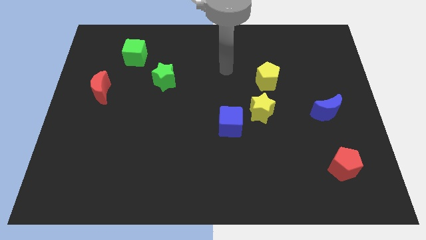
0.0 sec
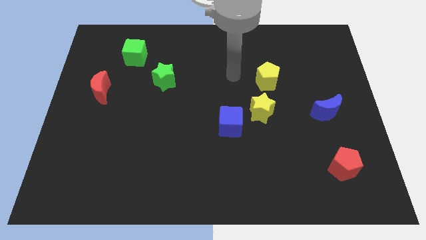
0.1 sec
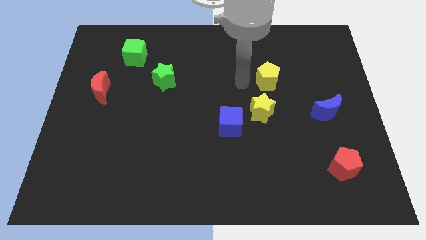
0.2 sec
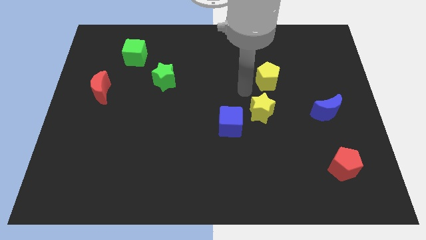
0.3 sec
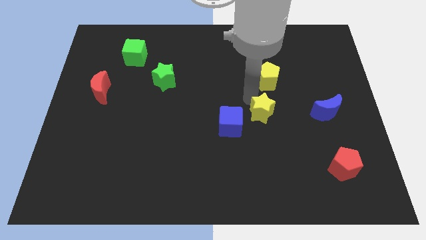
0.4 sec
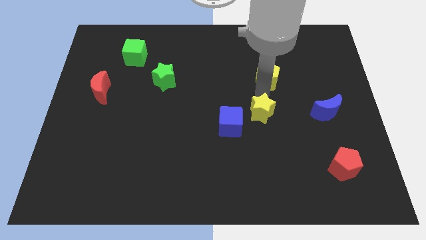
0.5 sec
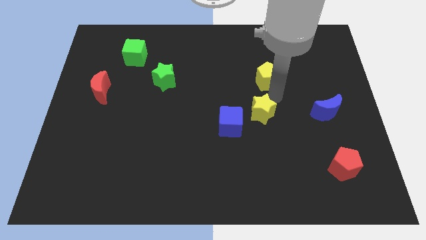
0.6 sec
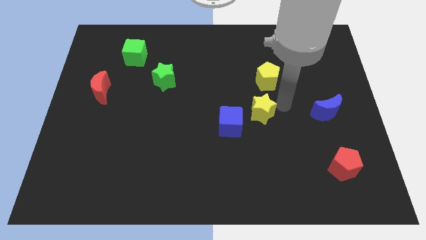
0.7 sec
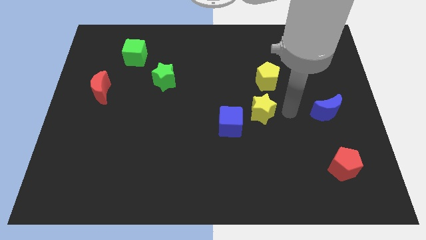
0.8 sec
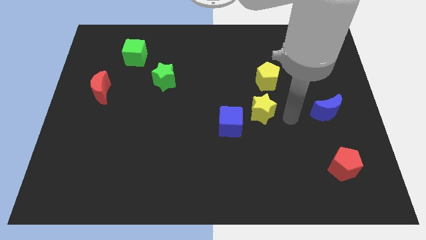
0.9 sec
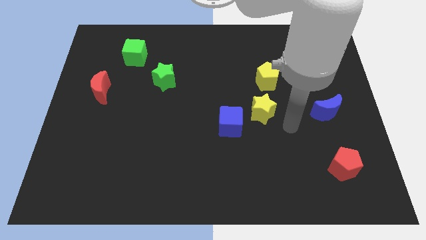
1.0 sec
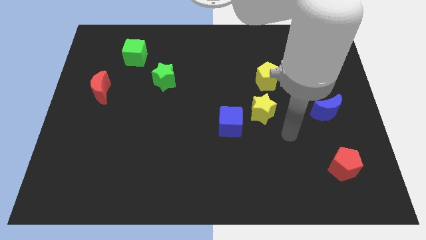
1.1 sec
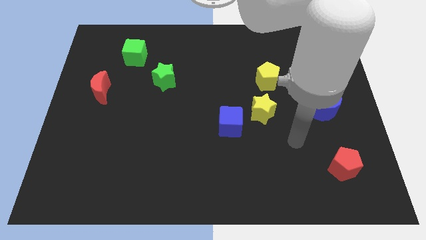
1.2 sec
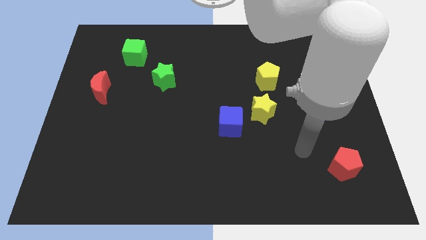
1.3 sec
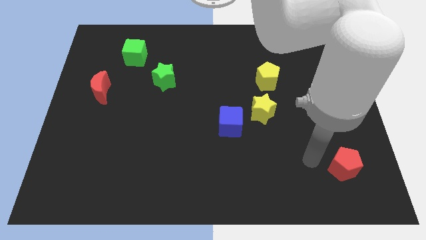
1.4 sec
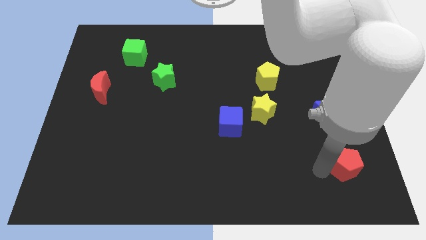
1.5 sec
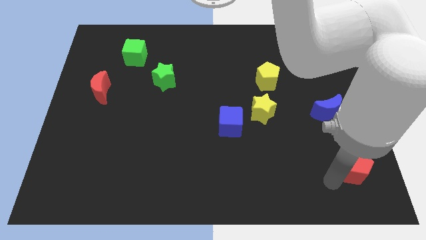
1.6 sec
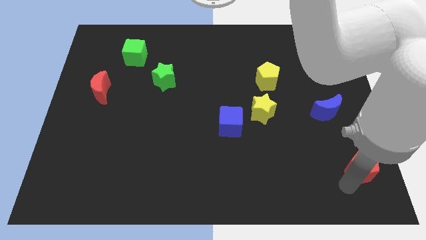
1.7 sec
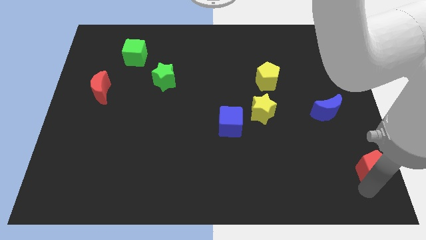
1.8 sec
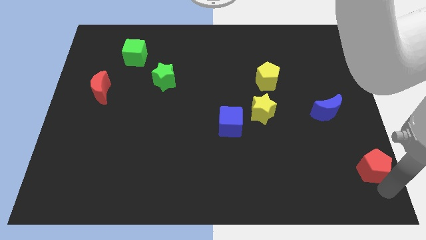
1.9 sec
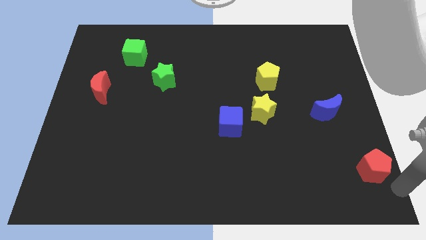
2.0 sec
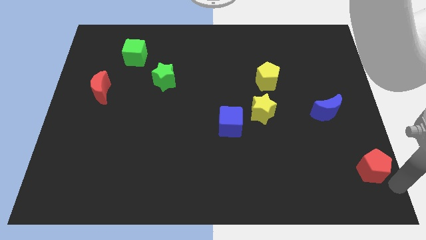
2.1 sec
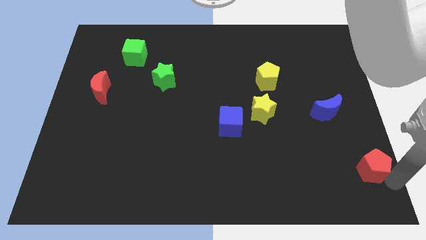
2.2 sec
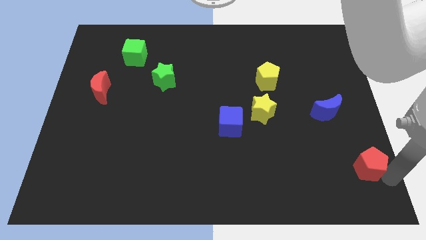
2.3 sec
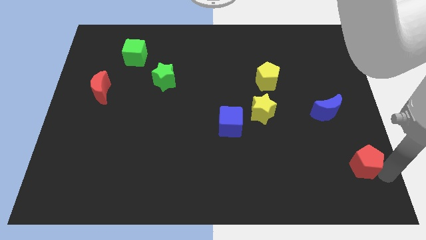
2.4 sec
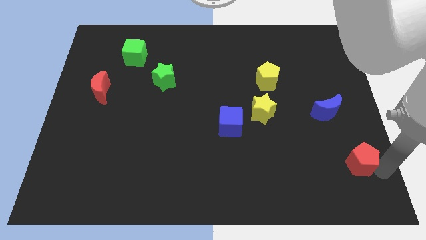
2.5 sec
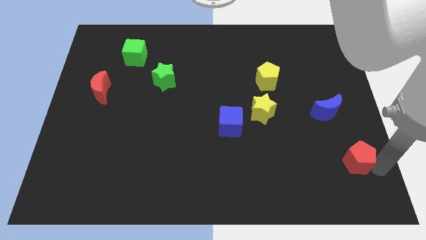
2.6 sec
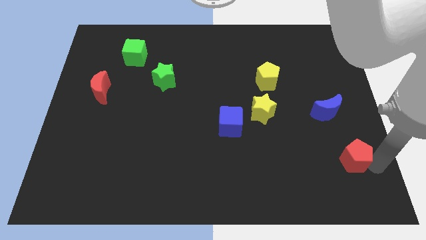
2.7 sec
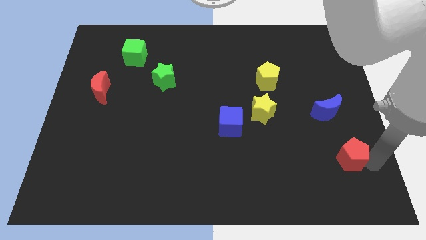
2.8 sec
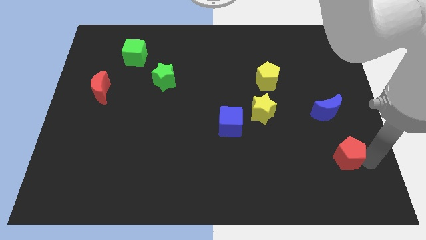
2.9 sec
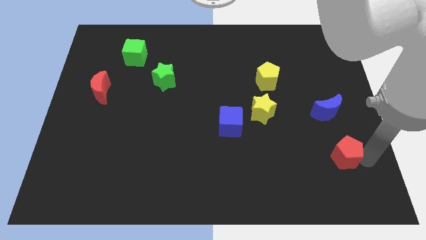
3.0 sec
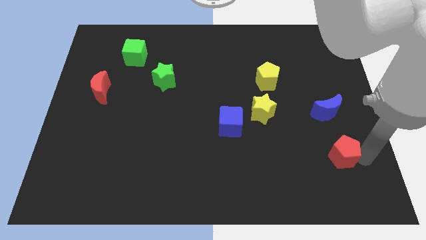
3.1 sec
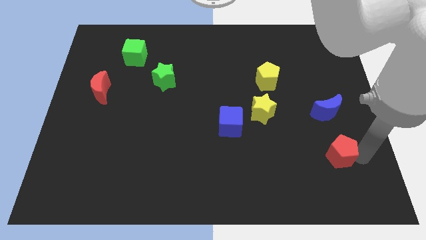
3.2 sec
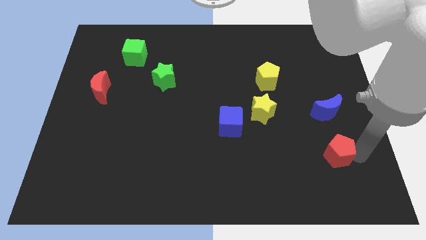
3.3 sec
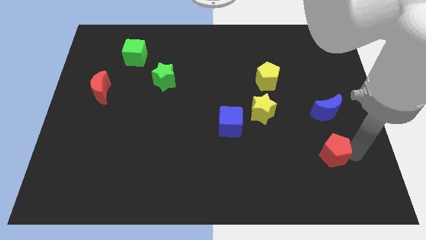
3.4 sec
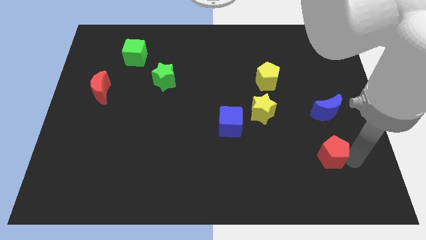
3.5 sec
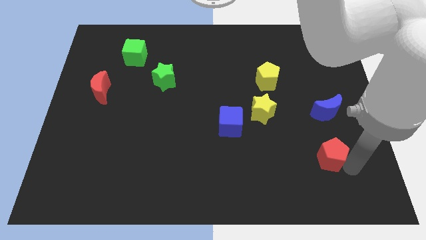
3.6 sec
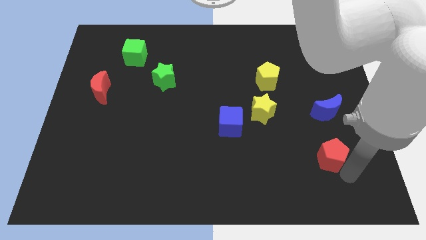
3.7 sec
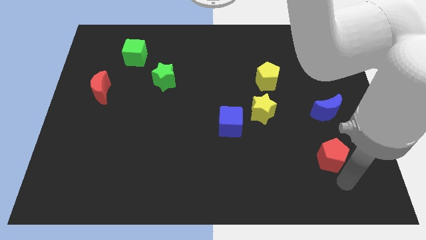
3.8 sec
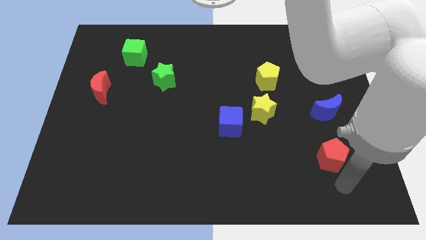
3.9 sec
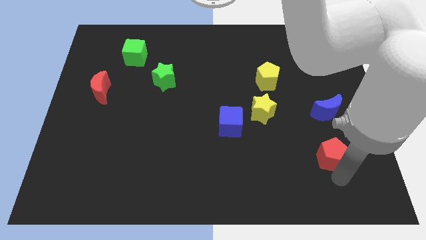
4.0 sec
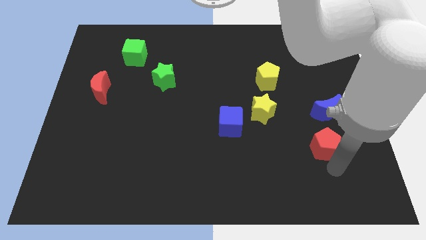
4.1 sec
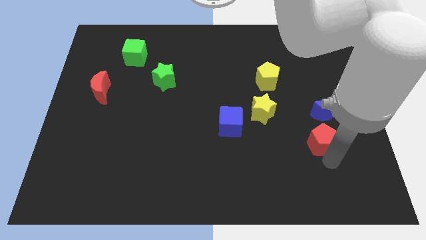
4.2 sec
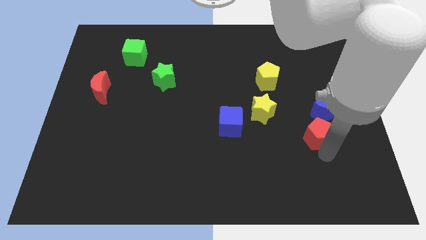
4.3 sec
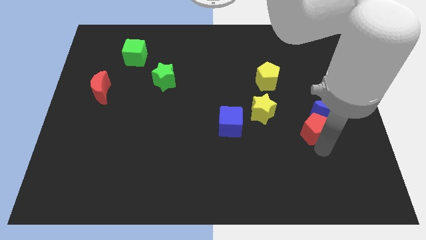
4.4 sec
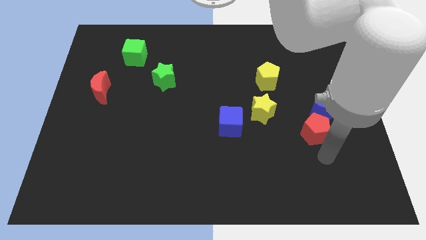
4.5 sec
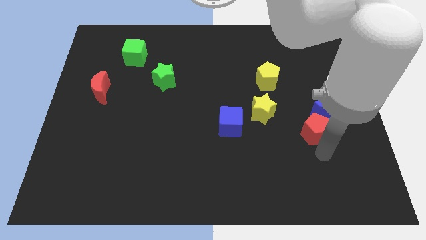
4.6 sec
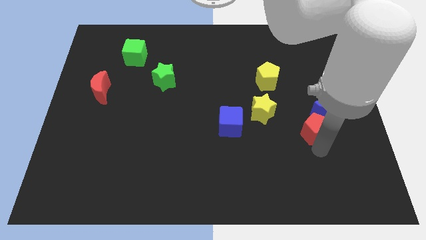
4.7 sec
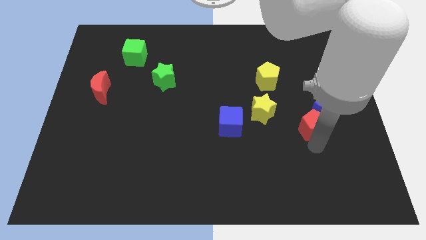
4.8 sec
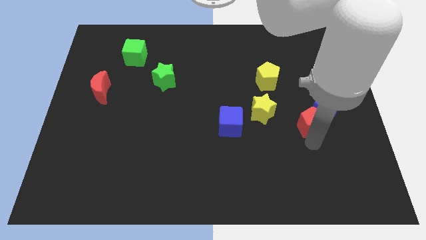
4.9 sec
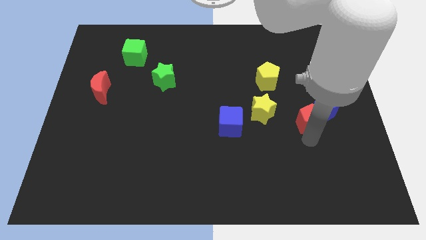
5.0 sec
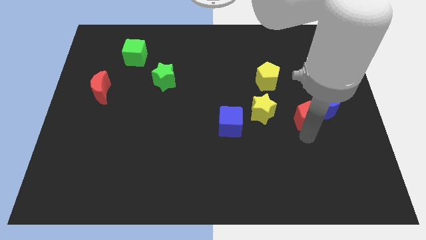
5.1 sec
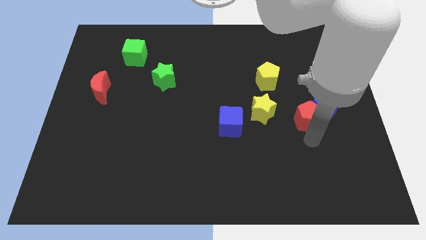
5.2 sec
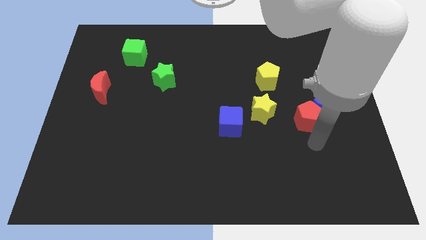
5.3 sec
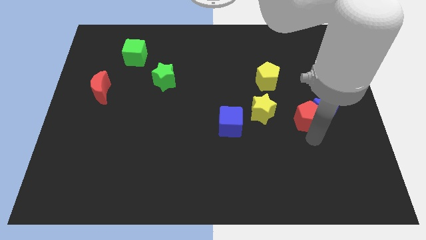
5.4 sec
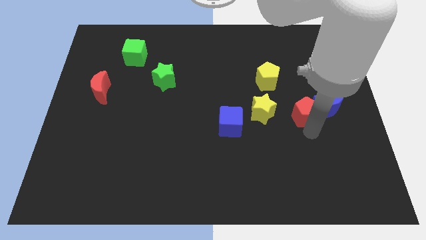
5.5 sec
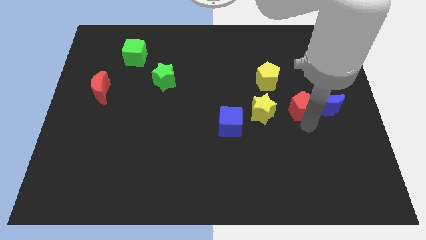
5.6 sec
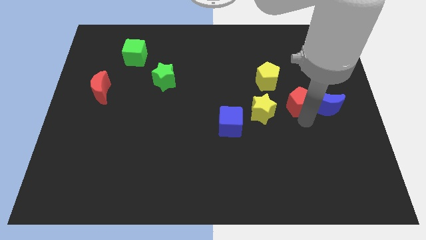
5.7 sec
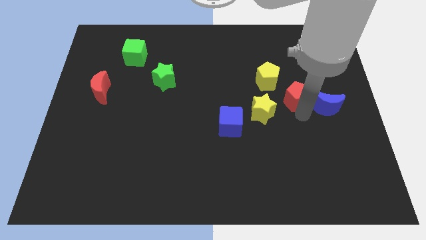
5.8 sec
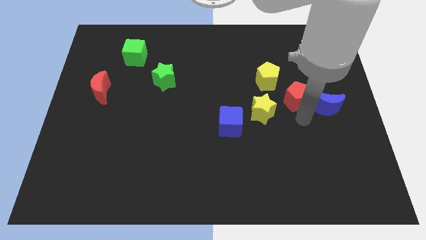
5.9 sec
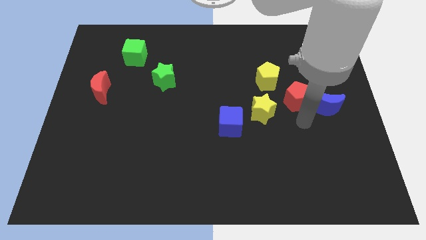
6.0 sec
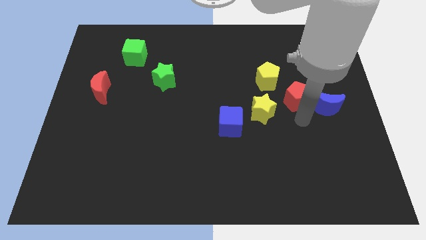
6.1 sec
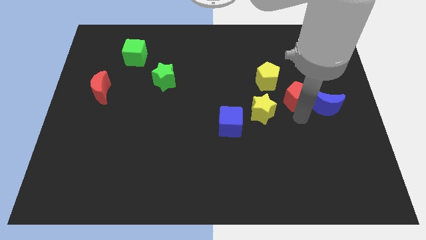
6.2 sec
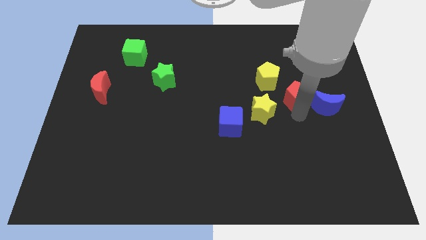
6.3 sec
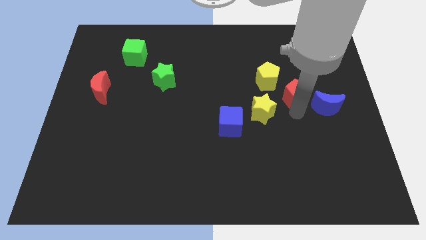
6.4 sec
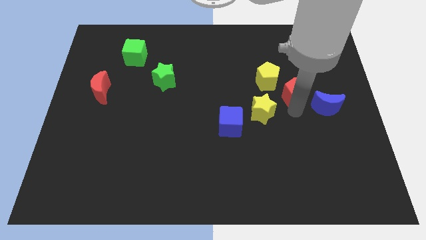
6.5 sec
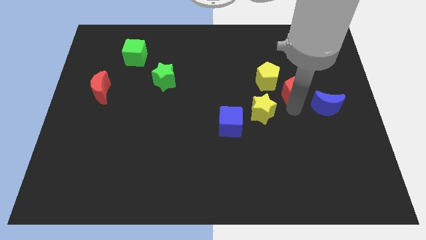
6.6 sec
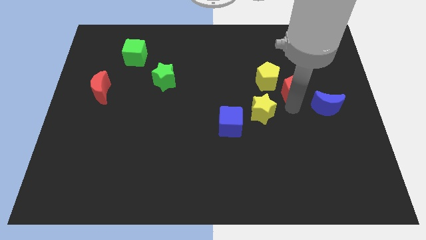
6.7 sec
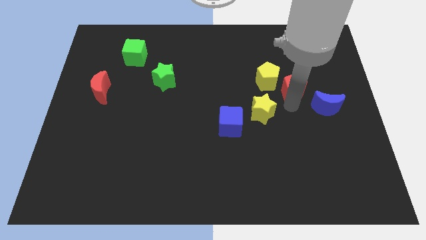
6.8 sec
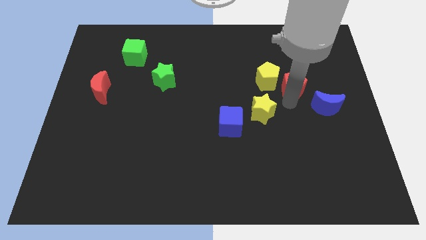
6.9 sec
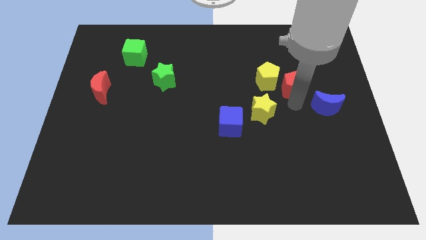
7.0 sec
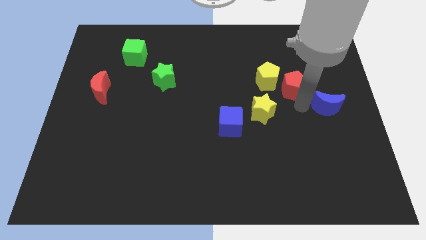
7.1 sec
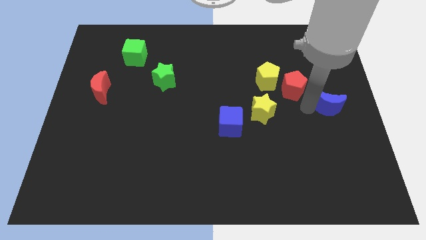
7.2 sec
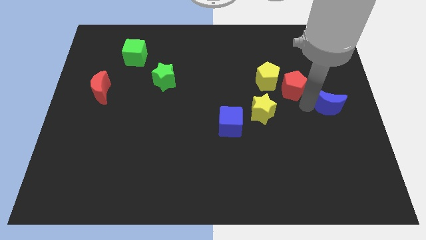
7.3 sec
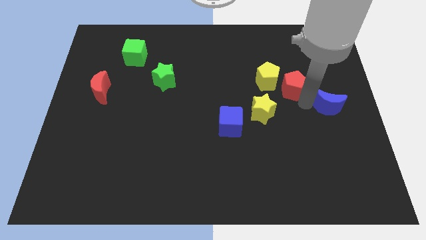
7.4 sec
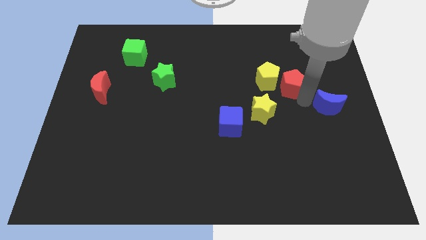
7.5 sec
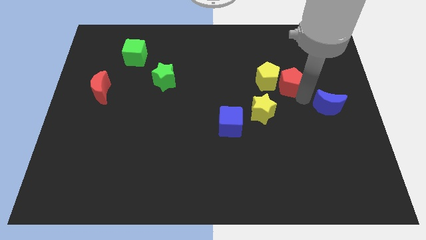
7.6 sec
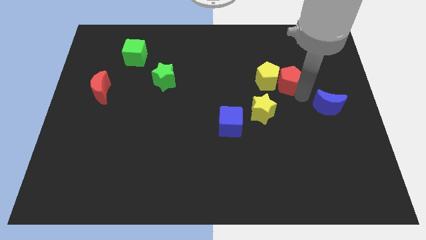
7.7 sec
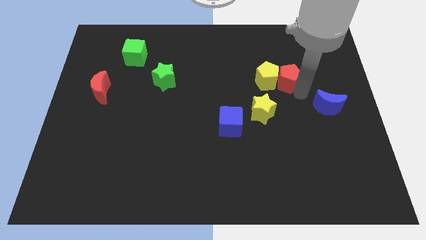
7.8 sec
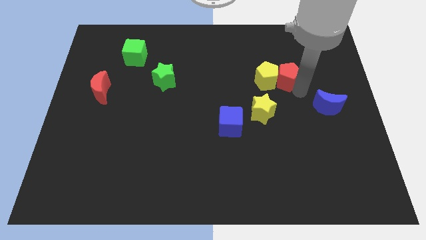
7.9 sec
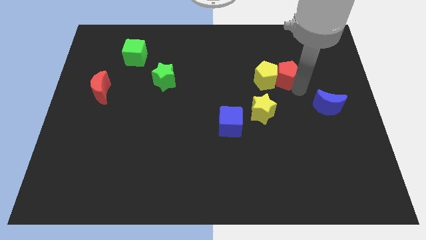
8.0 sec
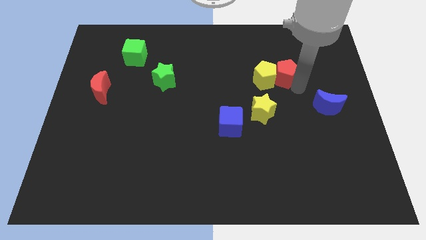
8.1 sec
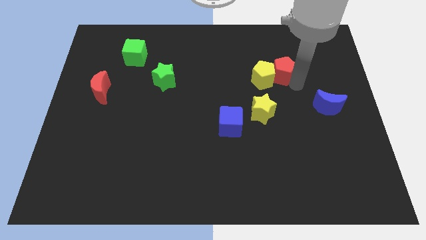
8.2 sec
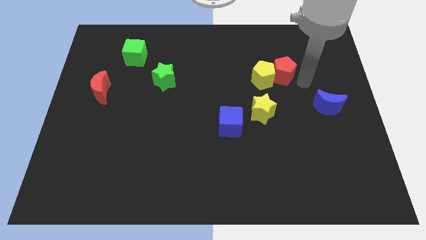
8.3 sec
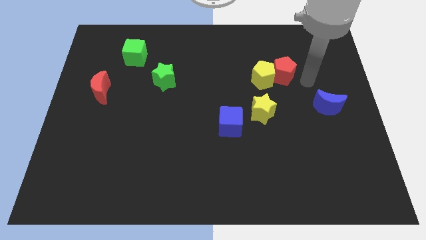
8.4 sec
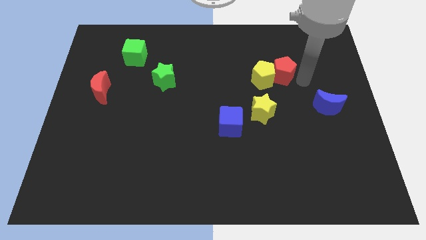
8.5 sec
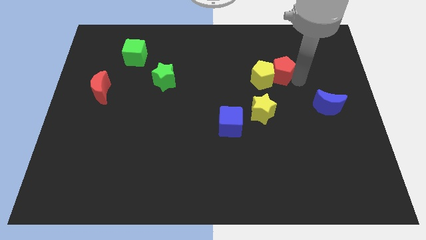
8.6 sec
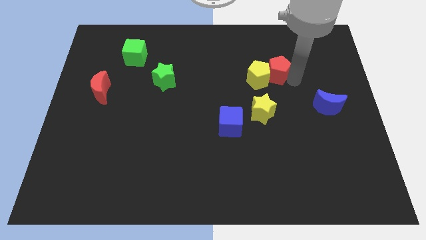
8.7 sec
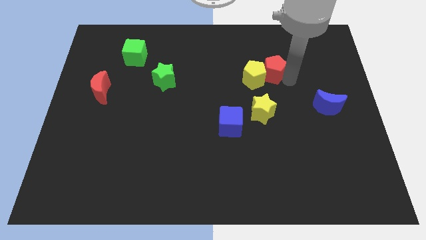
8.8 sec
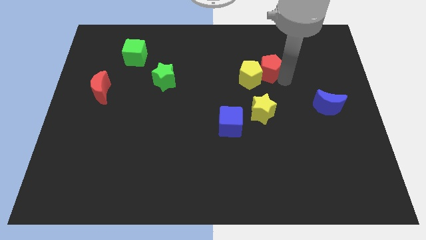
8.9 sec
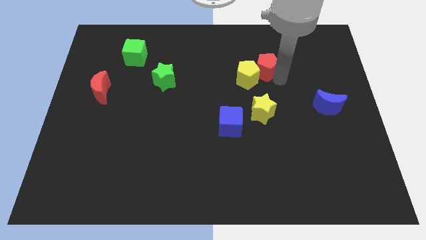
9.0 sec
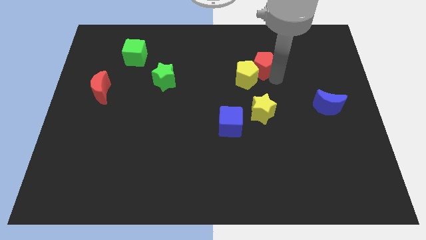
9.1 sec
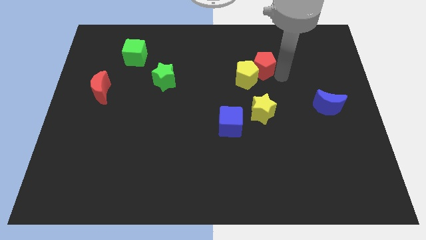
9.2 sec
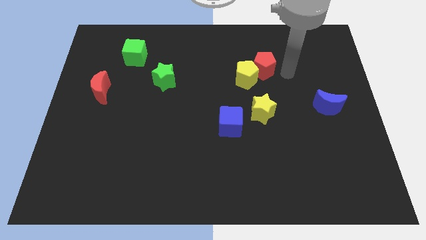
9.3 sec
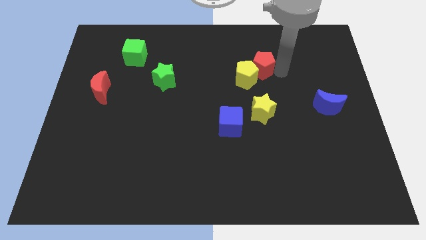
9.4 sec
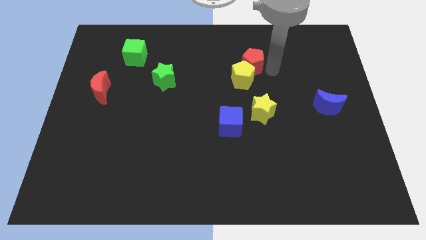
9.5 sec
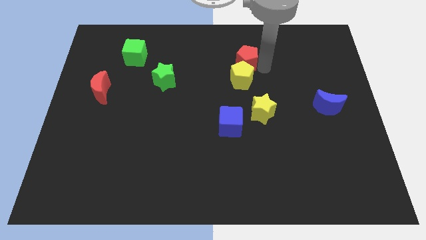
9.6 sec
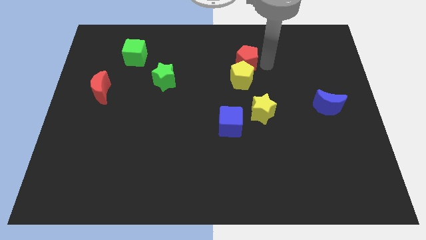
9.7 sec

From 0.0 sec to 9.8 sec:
push the red pentagon to the top left side of the yellow pentagon
